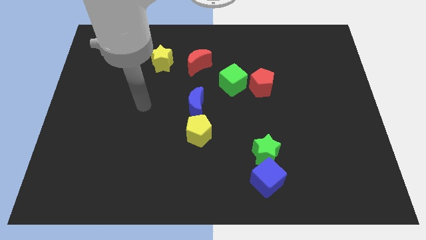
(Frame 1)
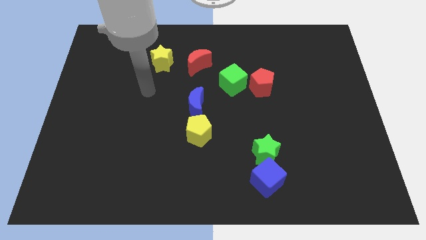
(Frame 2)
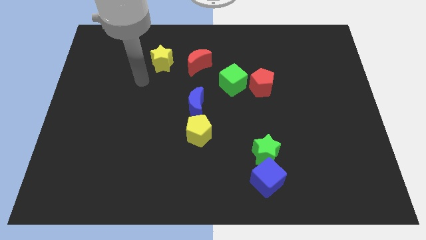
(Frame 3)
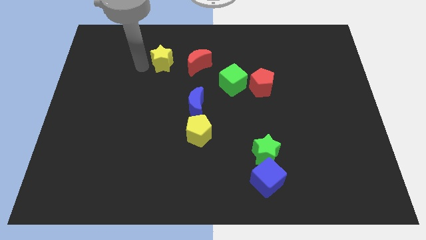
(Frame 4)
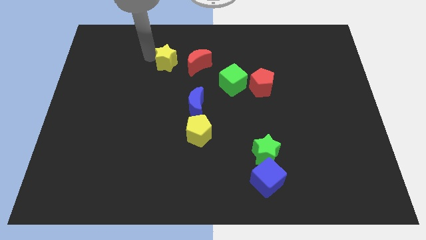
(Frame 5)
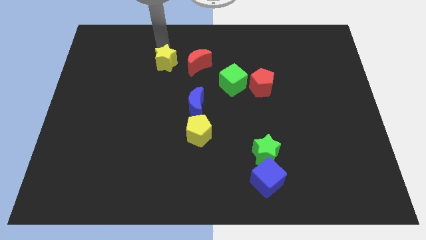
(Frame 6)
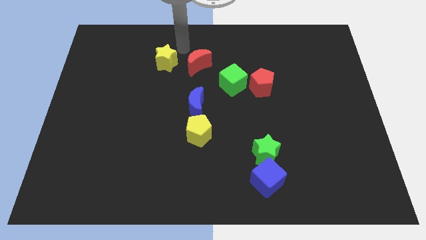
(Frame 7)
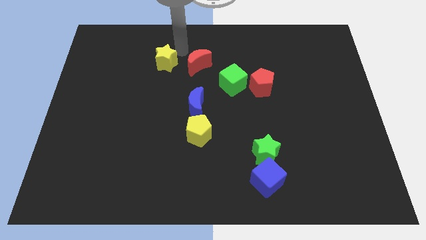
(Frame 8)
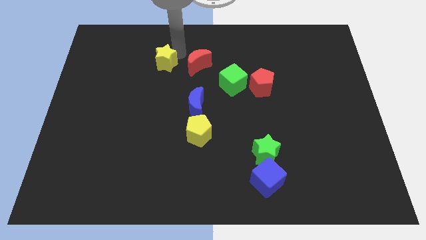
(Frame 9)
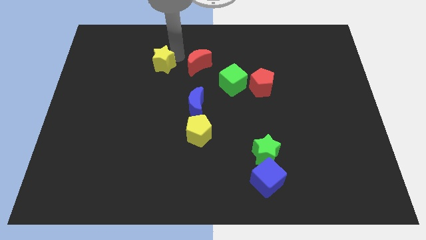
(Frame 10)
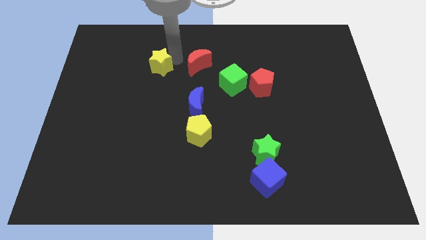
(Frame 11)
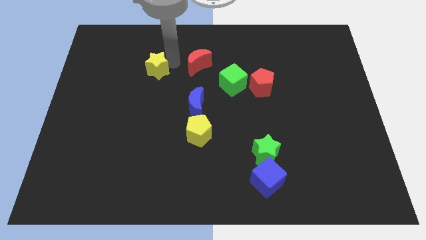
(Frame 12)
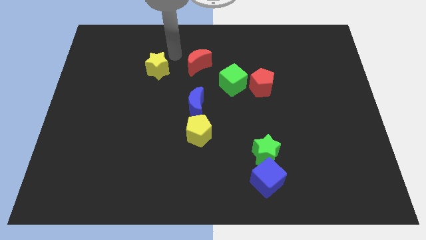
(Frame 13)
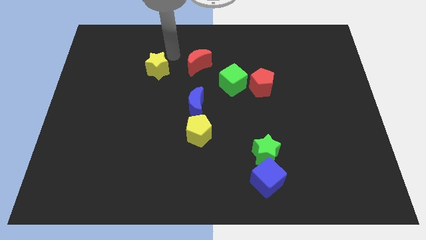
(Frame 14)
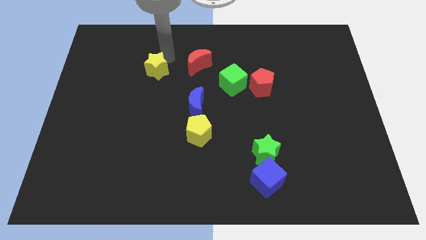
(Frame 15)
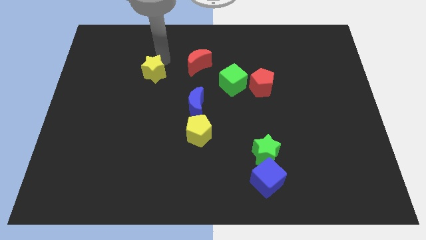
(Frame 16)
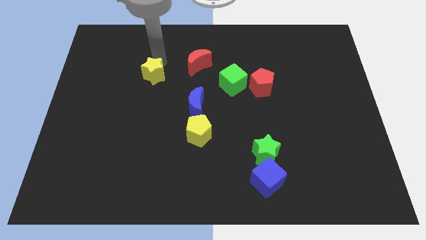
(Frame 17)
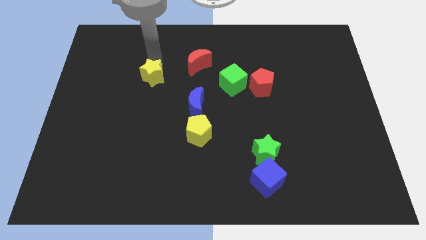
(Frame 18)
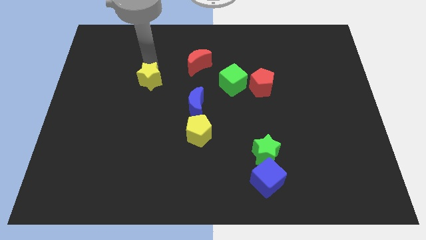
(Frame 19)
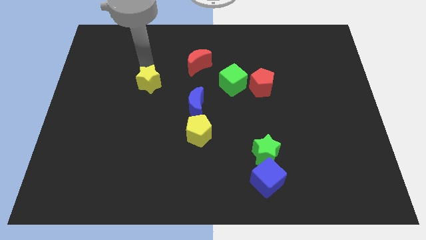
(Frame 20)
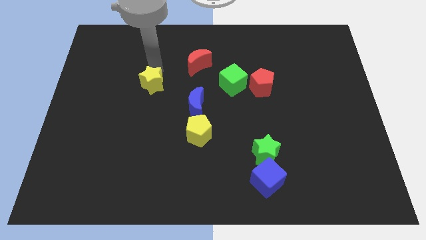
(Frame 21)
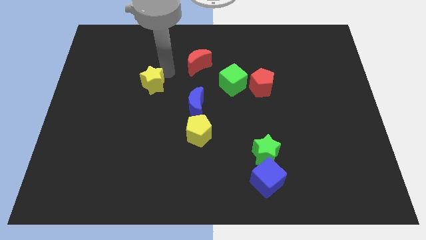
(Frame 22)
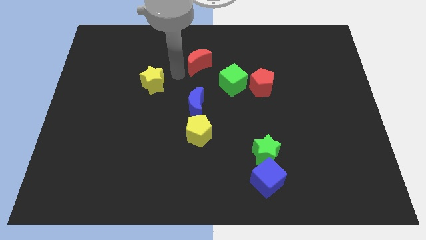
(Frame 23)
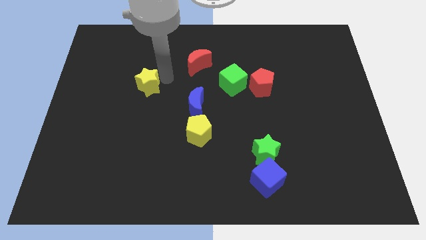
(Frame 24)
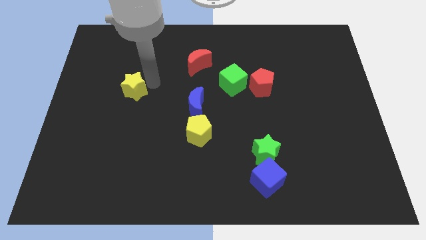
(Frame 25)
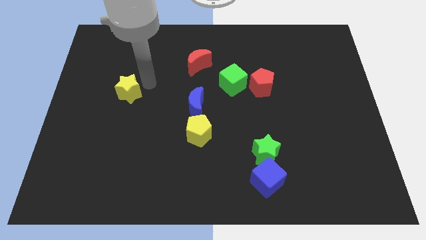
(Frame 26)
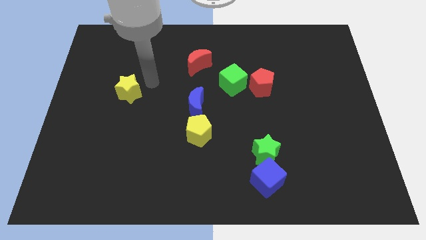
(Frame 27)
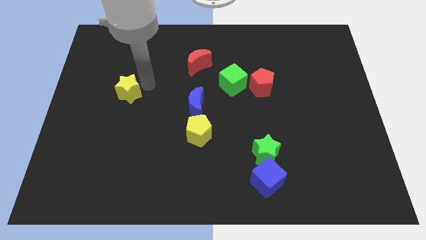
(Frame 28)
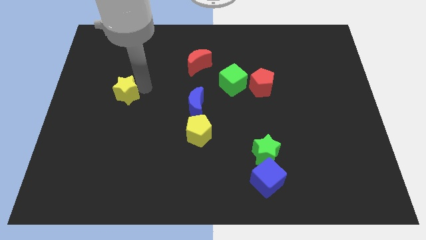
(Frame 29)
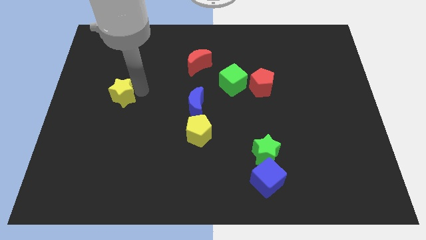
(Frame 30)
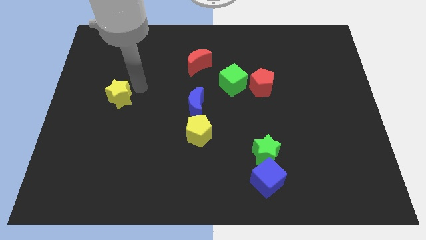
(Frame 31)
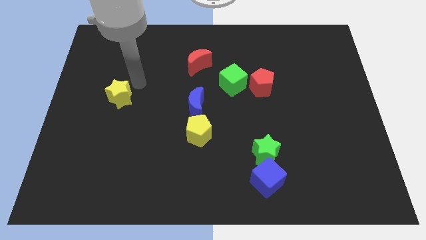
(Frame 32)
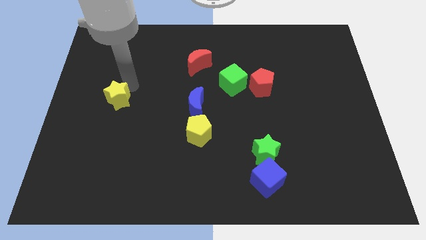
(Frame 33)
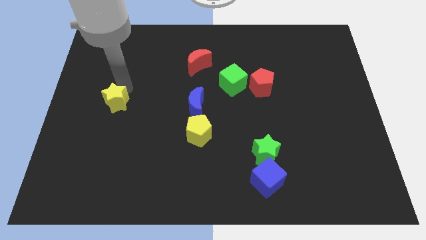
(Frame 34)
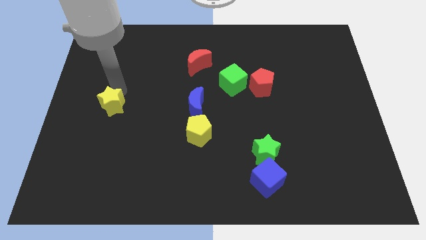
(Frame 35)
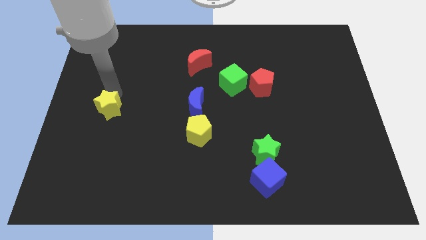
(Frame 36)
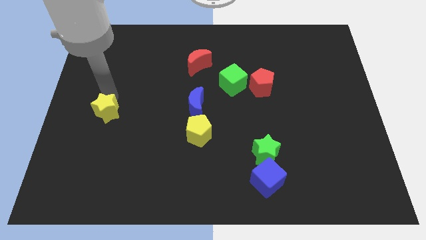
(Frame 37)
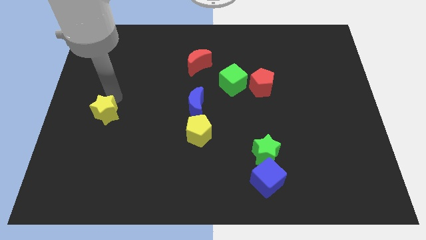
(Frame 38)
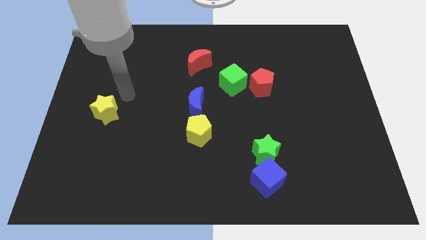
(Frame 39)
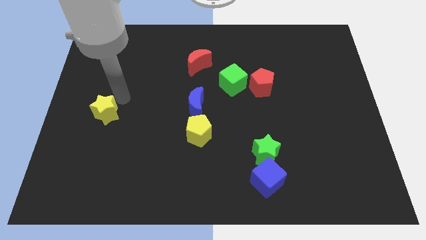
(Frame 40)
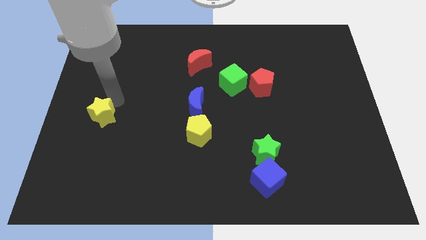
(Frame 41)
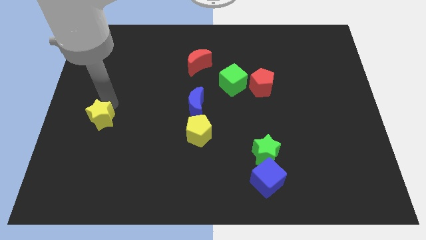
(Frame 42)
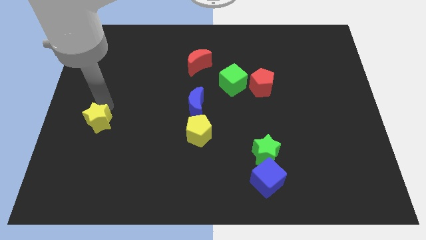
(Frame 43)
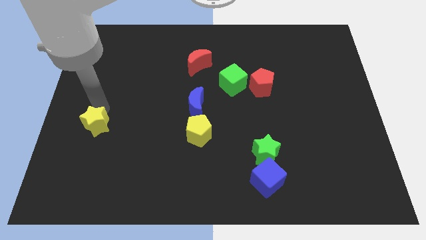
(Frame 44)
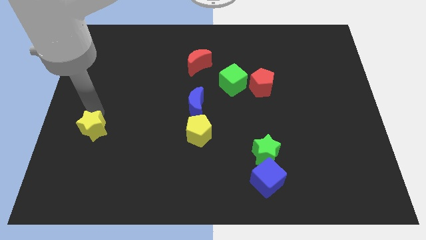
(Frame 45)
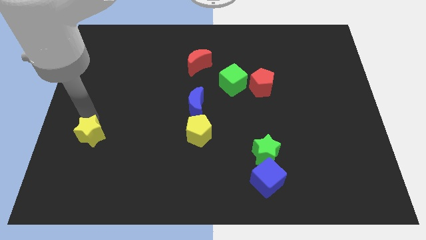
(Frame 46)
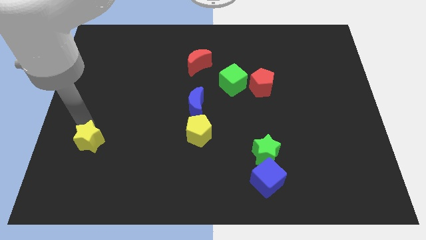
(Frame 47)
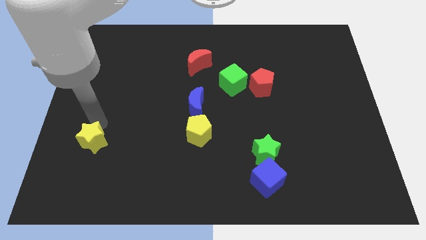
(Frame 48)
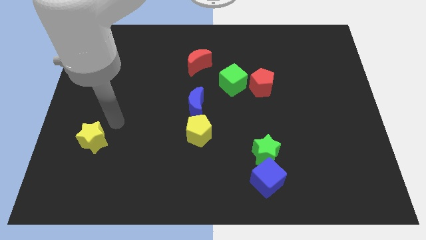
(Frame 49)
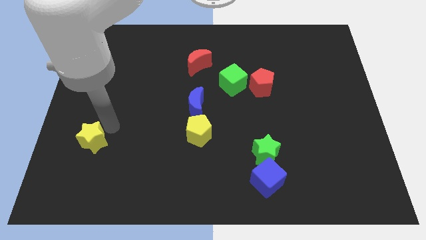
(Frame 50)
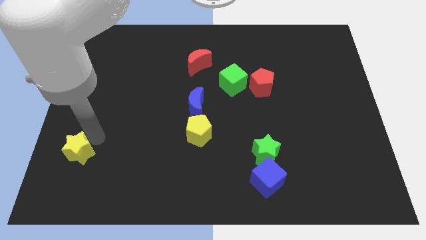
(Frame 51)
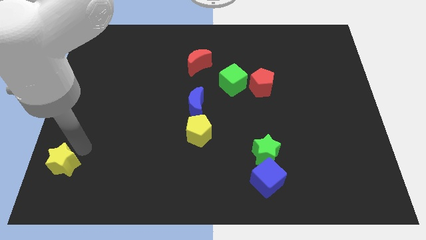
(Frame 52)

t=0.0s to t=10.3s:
move the yellow star to the bottom left

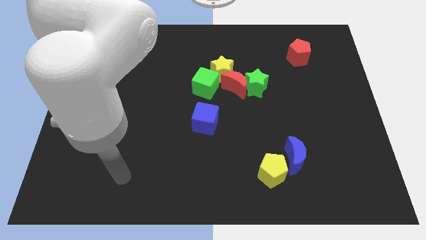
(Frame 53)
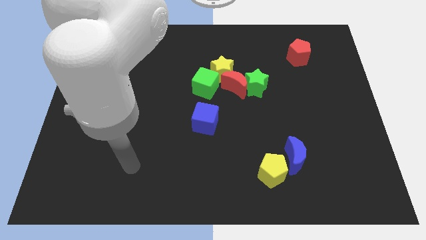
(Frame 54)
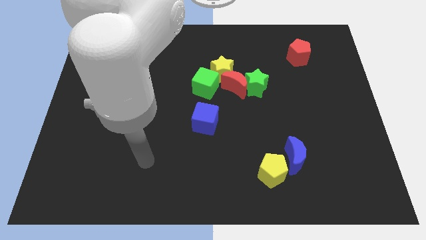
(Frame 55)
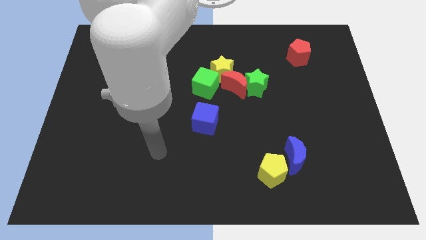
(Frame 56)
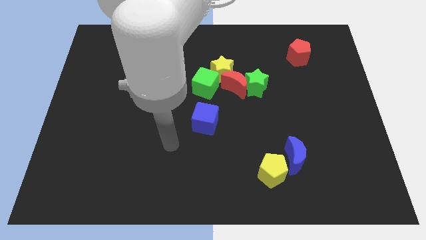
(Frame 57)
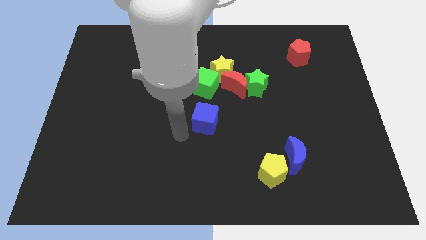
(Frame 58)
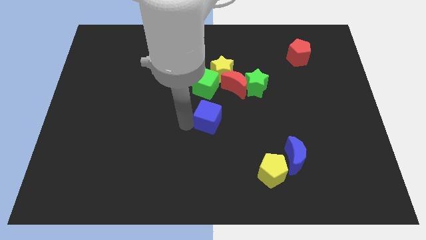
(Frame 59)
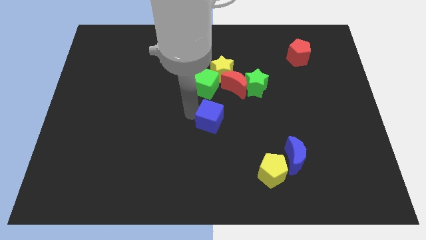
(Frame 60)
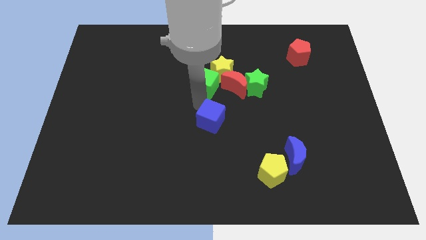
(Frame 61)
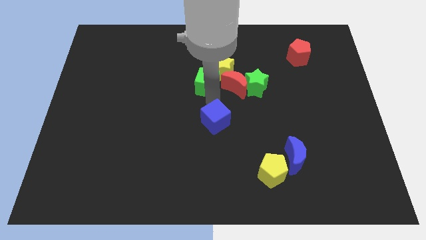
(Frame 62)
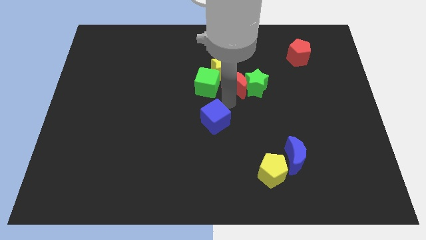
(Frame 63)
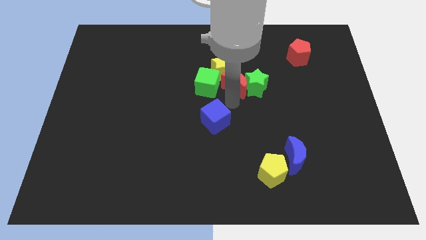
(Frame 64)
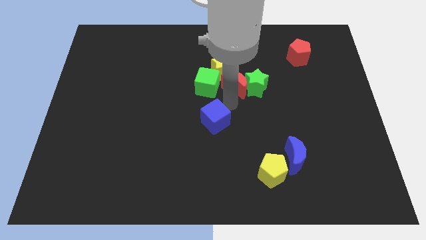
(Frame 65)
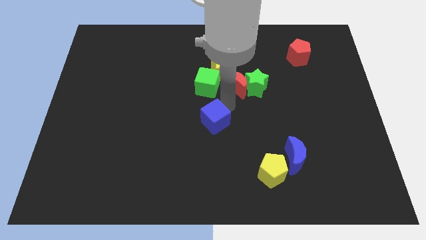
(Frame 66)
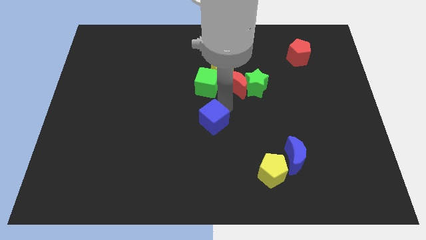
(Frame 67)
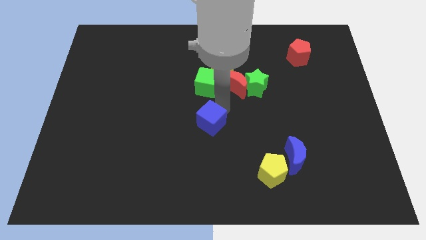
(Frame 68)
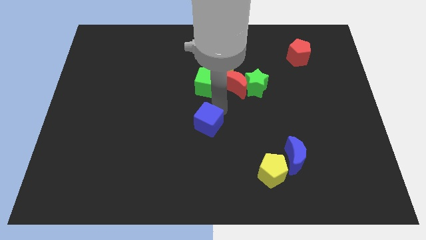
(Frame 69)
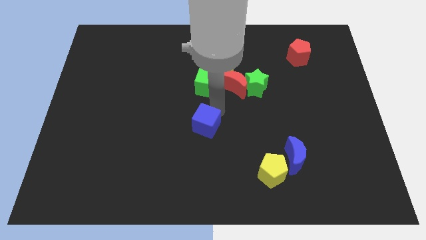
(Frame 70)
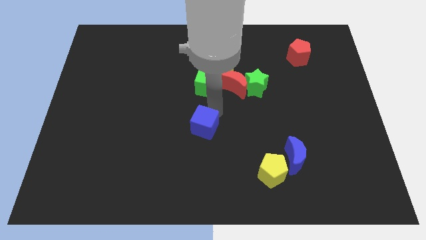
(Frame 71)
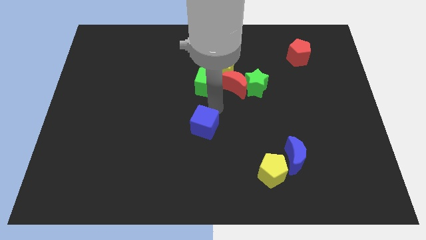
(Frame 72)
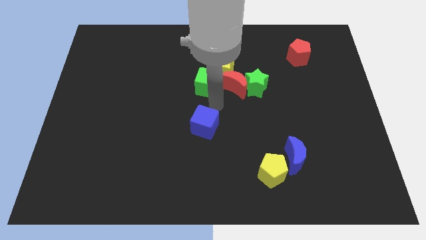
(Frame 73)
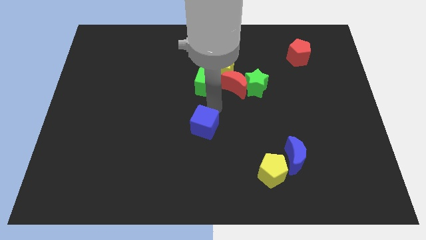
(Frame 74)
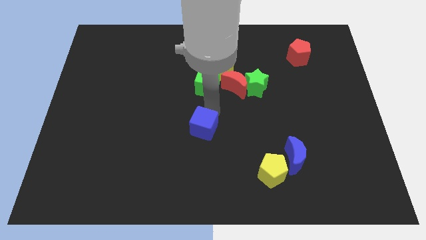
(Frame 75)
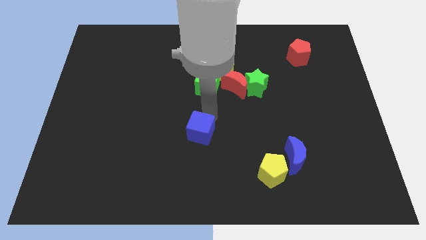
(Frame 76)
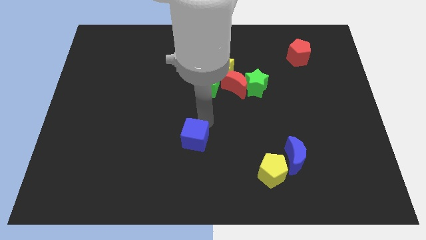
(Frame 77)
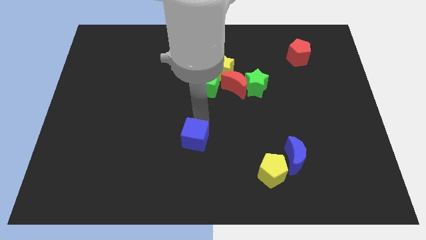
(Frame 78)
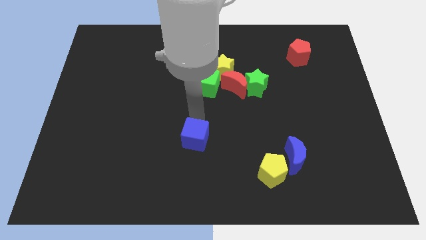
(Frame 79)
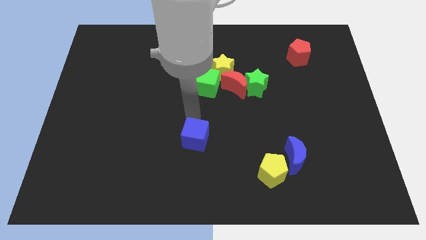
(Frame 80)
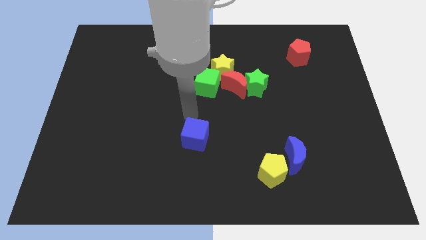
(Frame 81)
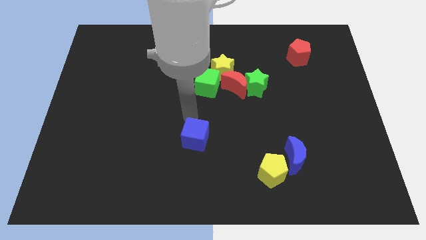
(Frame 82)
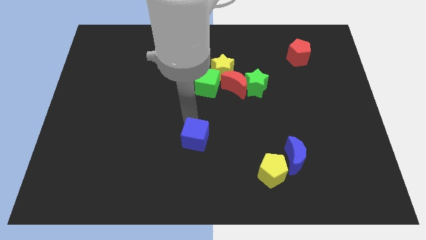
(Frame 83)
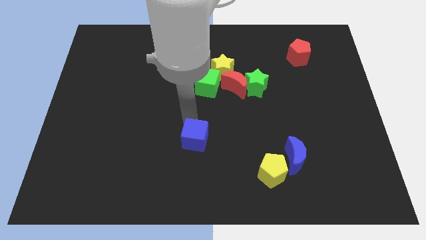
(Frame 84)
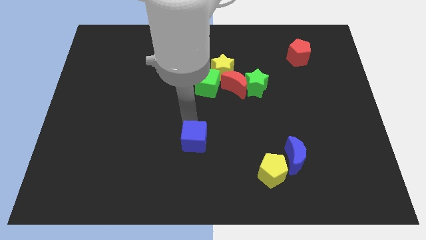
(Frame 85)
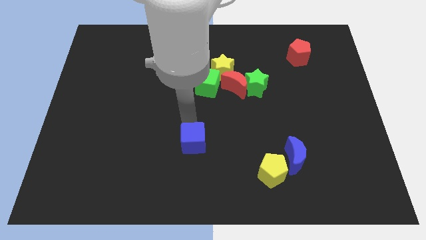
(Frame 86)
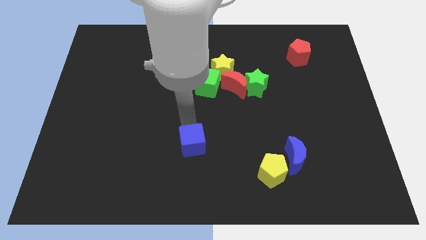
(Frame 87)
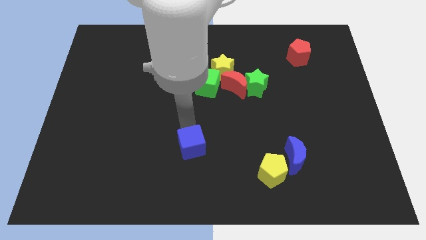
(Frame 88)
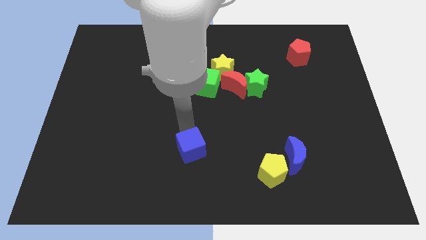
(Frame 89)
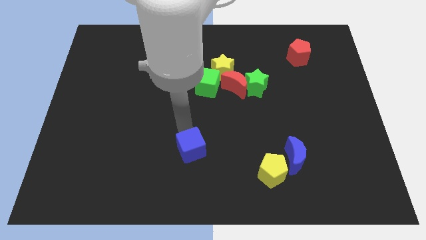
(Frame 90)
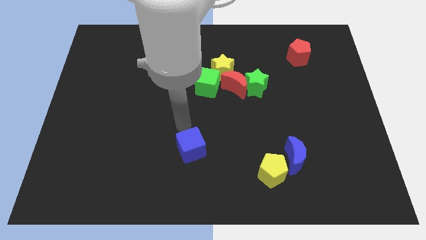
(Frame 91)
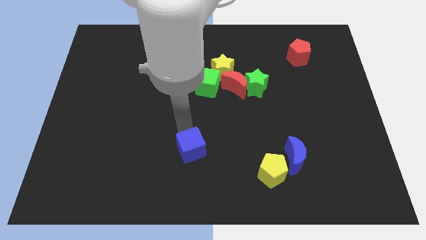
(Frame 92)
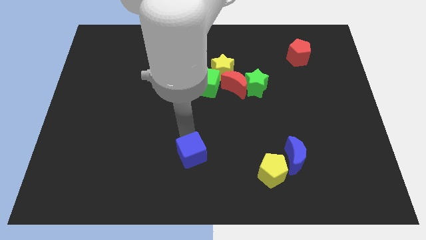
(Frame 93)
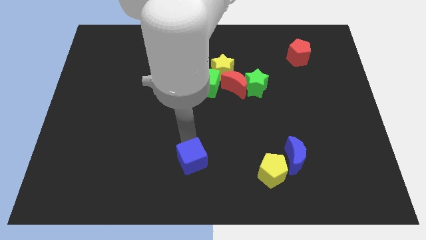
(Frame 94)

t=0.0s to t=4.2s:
slide the blue cube to the bottom
